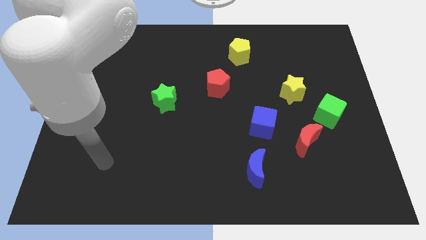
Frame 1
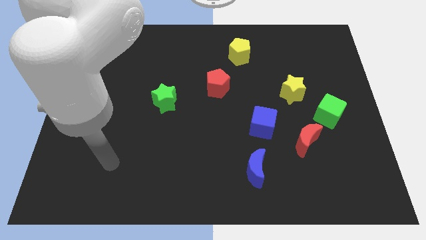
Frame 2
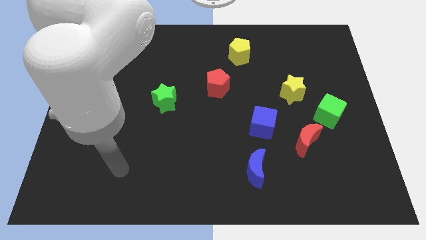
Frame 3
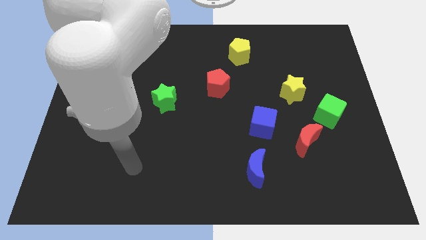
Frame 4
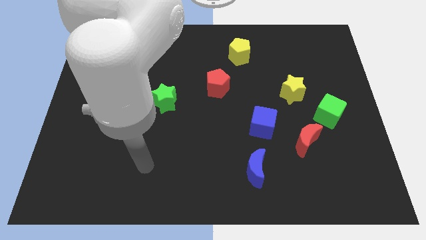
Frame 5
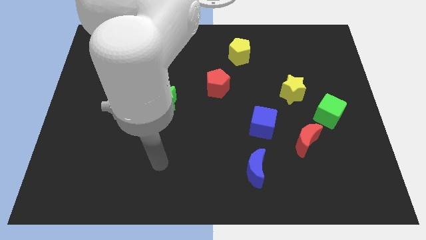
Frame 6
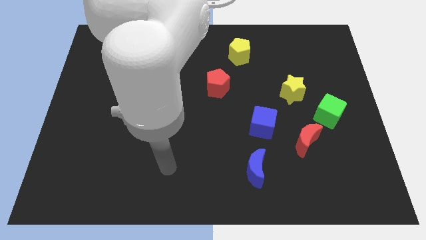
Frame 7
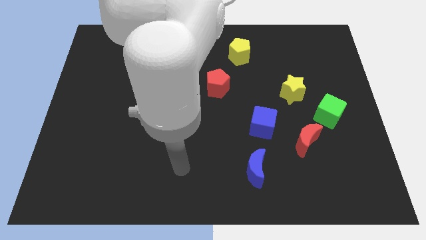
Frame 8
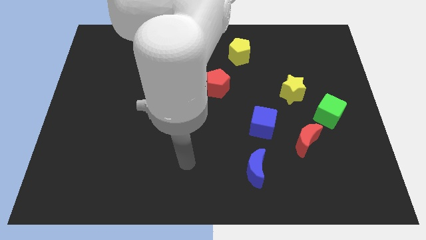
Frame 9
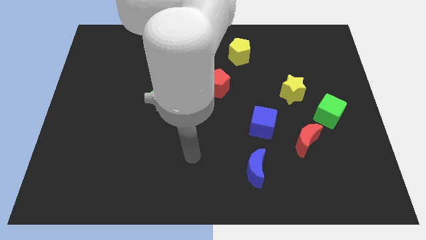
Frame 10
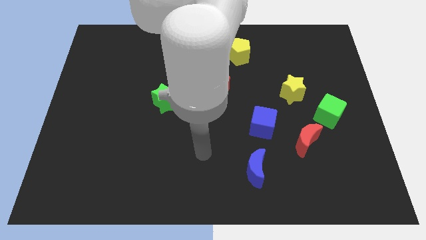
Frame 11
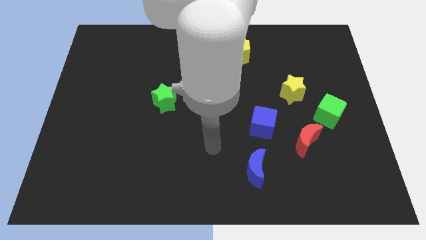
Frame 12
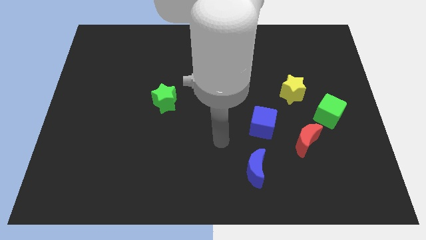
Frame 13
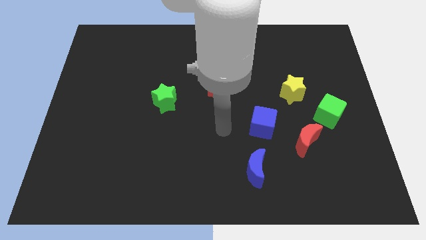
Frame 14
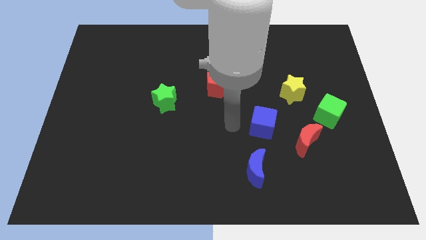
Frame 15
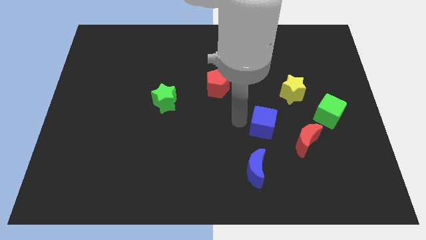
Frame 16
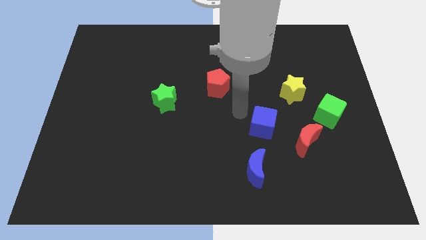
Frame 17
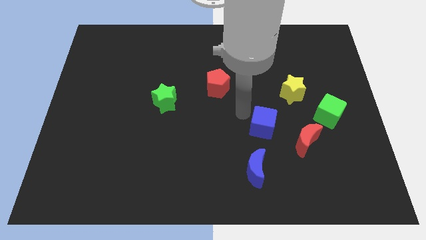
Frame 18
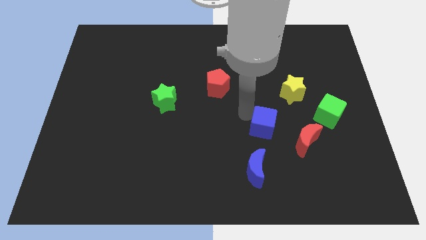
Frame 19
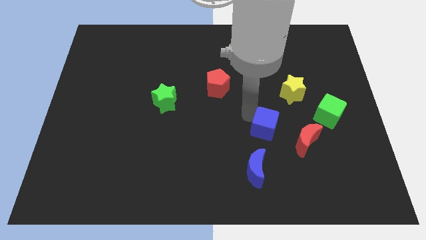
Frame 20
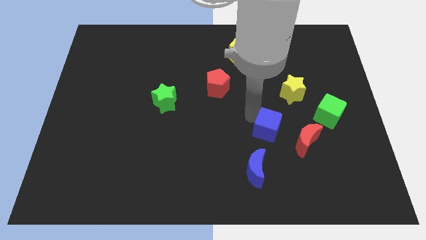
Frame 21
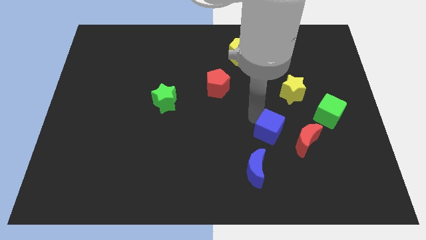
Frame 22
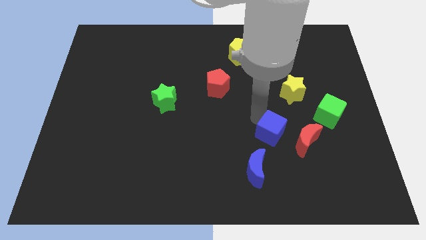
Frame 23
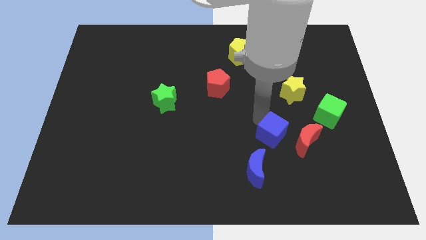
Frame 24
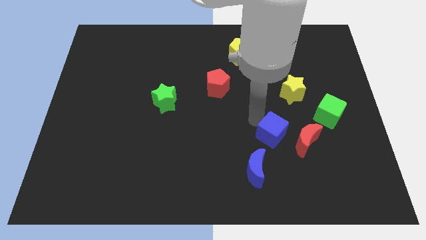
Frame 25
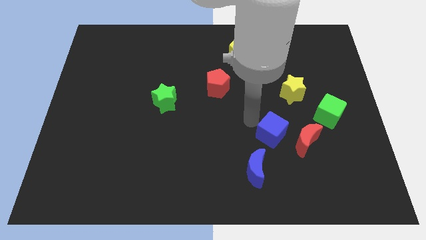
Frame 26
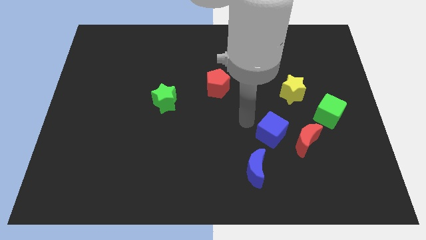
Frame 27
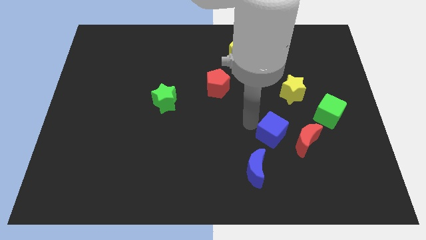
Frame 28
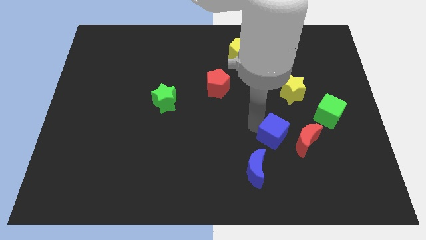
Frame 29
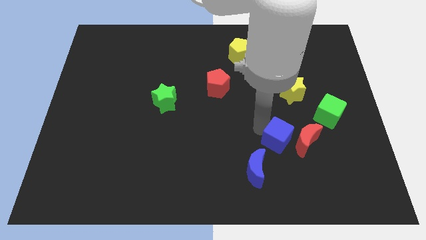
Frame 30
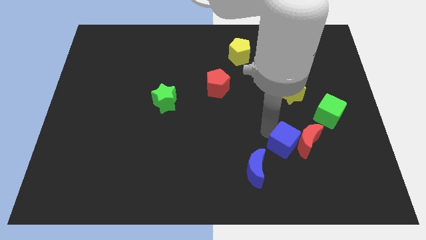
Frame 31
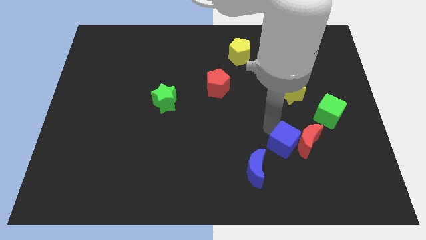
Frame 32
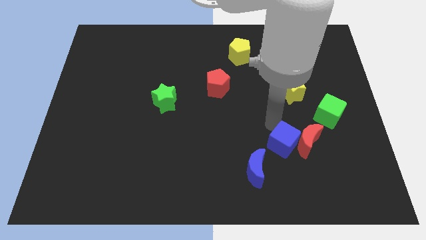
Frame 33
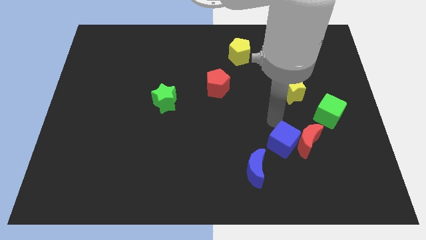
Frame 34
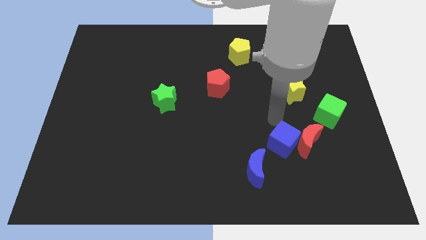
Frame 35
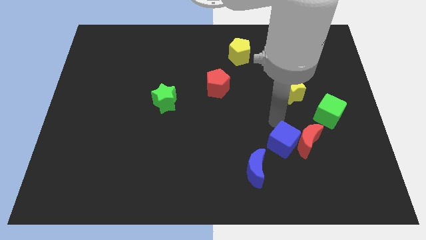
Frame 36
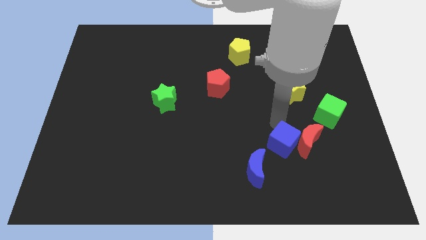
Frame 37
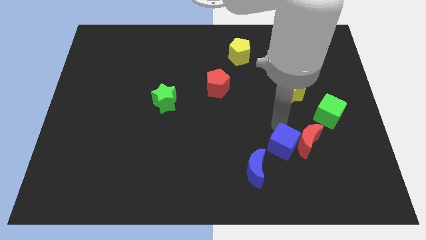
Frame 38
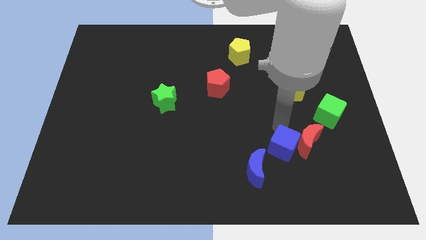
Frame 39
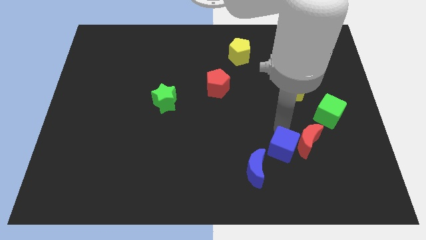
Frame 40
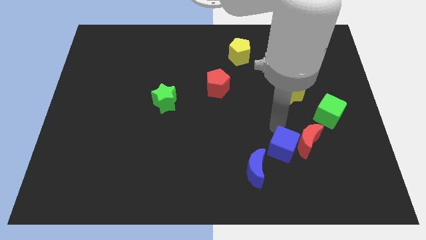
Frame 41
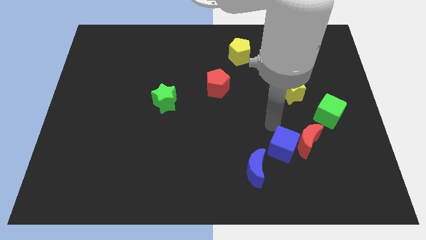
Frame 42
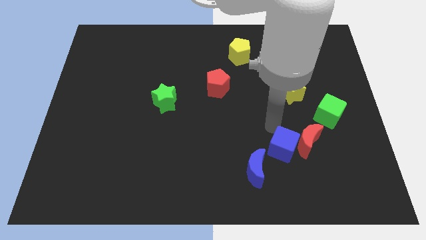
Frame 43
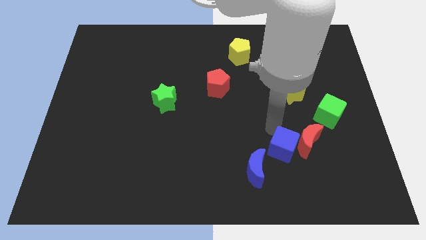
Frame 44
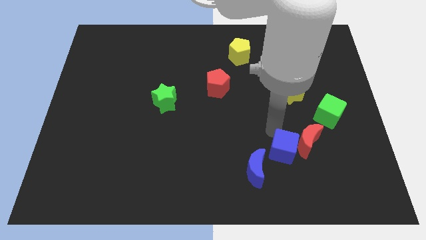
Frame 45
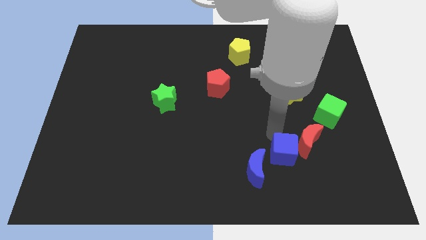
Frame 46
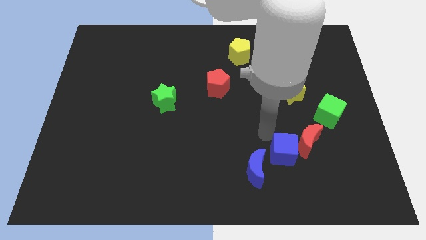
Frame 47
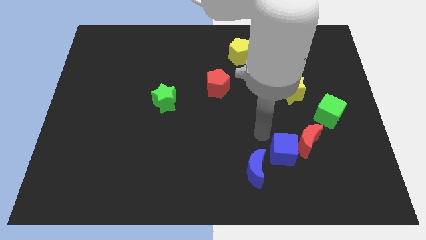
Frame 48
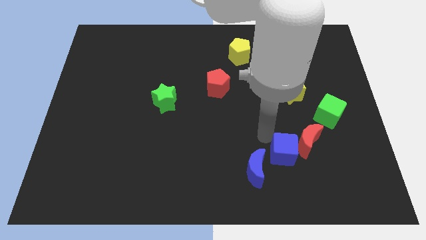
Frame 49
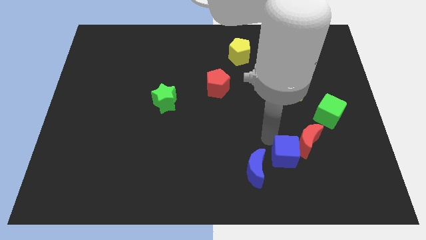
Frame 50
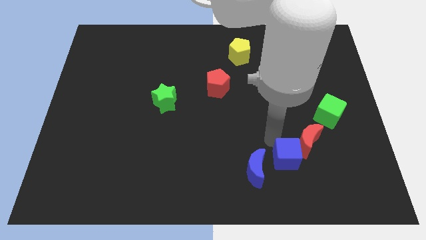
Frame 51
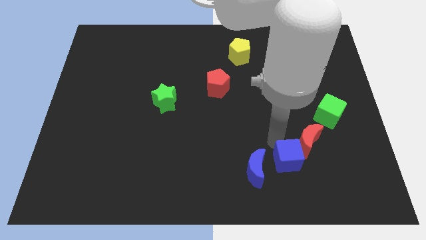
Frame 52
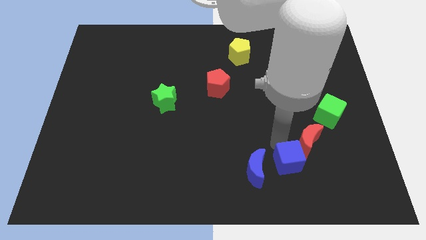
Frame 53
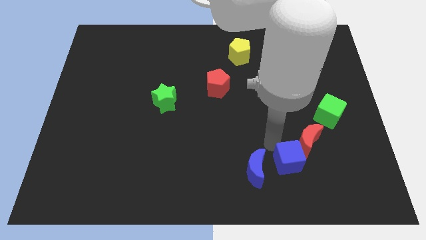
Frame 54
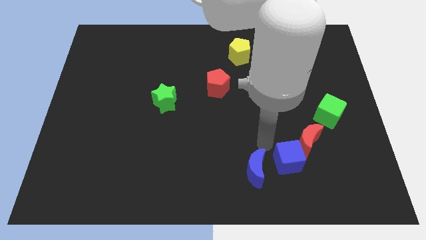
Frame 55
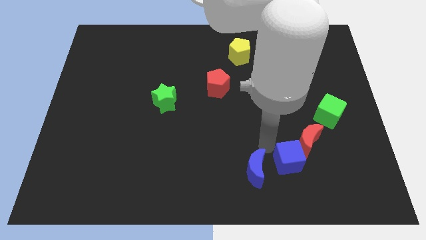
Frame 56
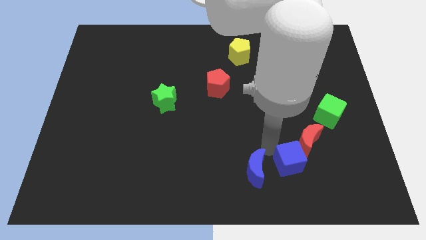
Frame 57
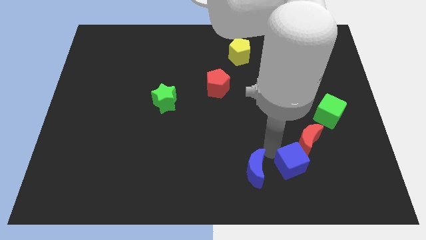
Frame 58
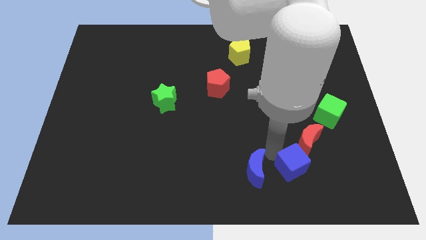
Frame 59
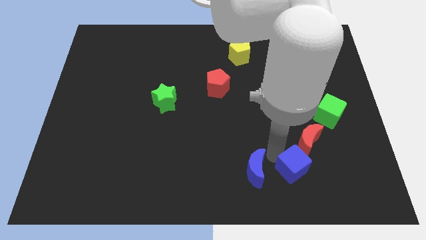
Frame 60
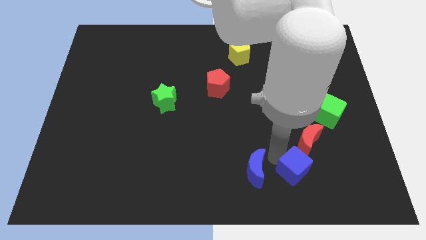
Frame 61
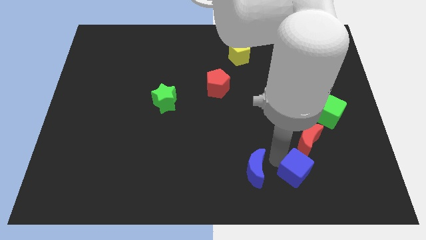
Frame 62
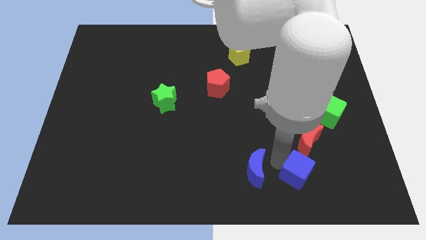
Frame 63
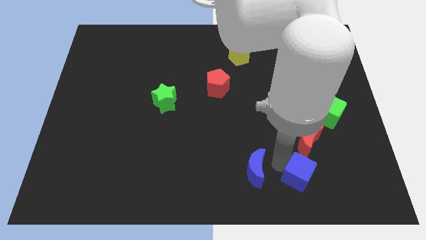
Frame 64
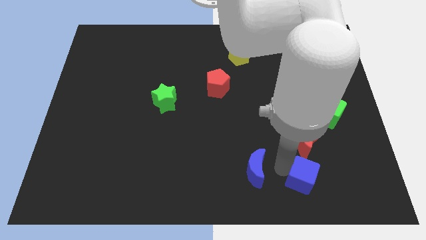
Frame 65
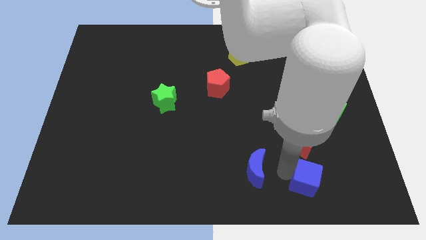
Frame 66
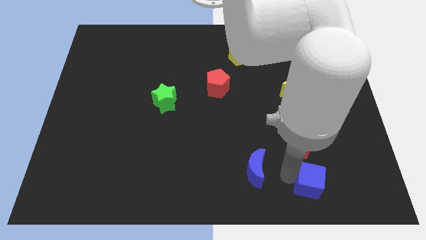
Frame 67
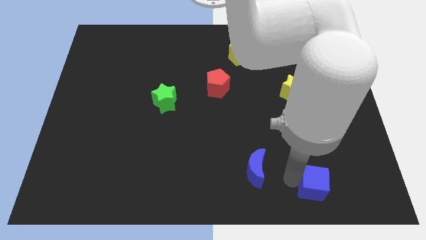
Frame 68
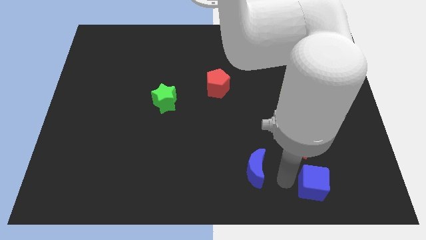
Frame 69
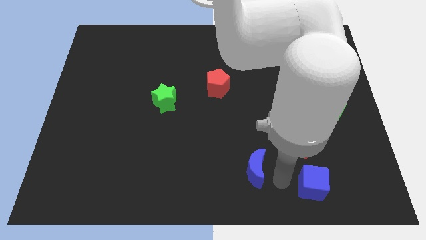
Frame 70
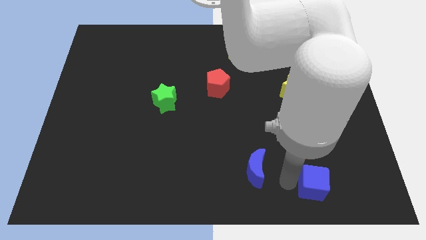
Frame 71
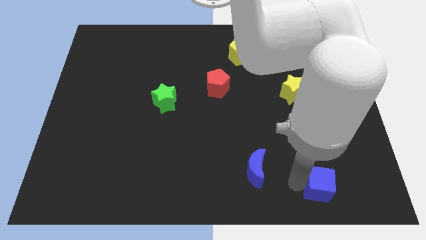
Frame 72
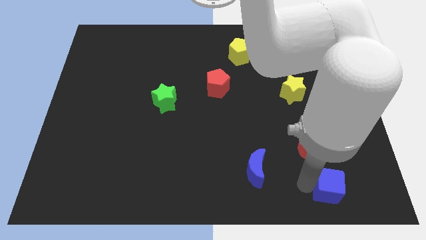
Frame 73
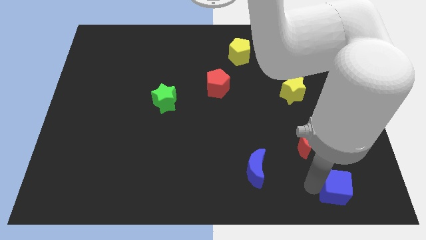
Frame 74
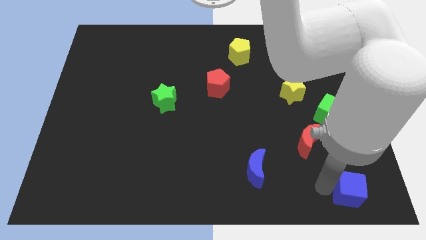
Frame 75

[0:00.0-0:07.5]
move the blue cube to the bottom right
